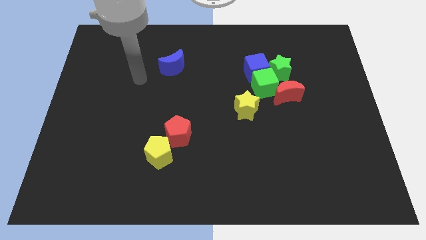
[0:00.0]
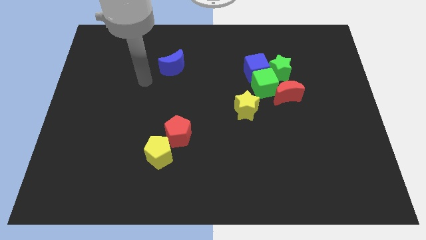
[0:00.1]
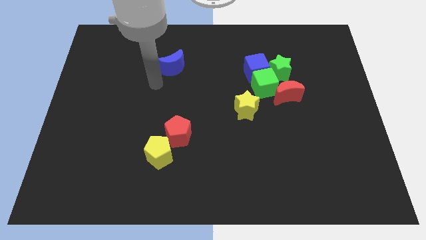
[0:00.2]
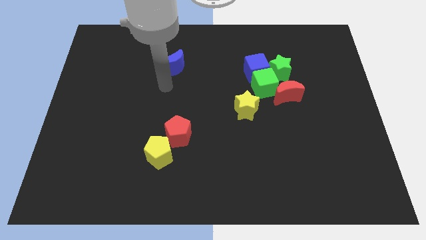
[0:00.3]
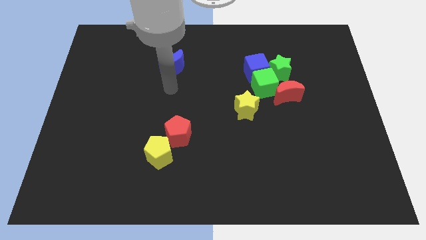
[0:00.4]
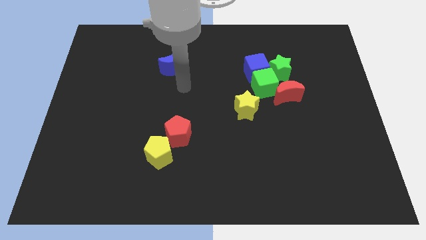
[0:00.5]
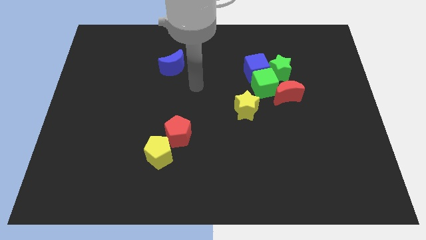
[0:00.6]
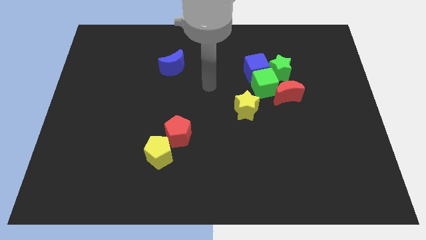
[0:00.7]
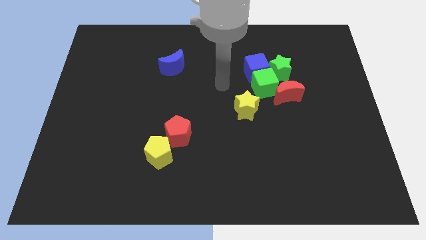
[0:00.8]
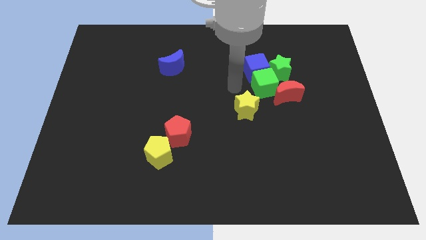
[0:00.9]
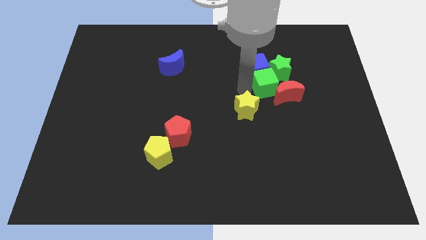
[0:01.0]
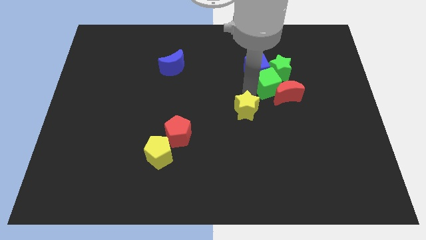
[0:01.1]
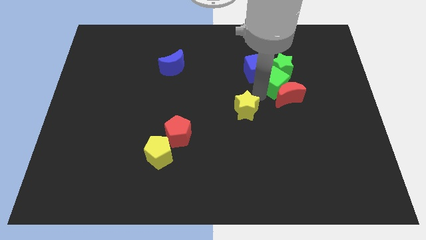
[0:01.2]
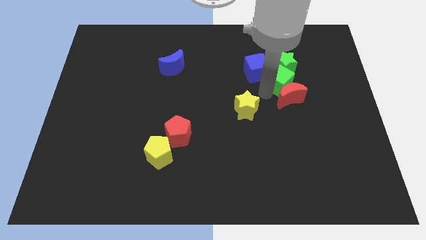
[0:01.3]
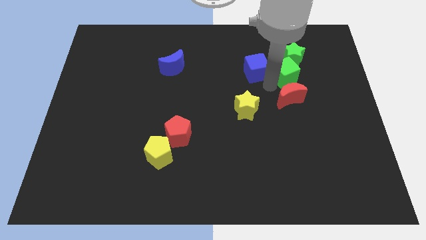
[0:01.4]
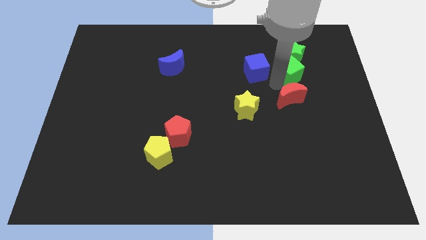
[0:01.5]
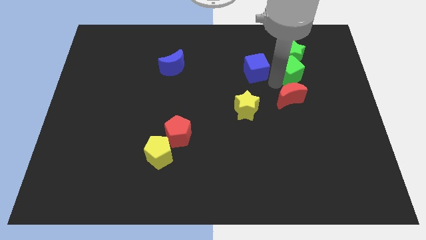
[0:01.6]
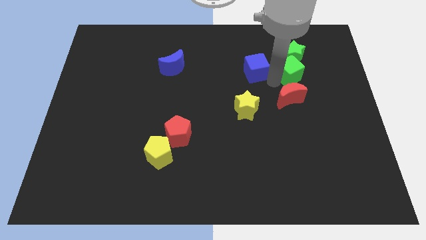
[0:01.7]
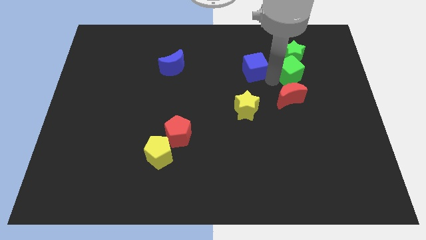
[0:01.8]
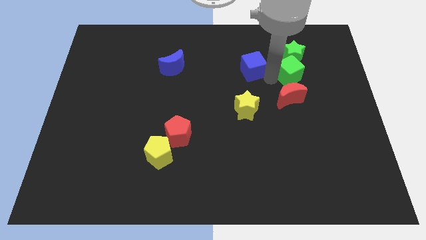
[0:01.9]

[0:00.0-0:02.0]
separate the blue cube from the green cube and green star

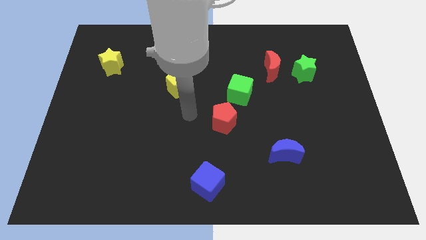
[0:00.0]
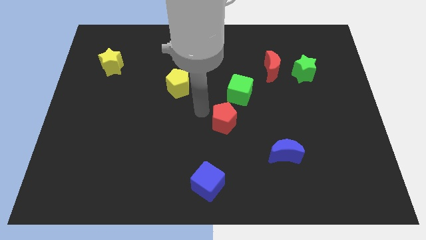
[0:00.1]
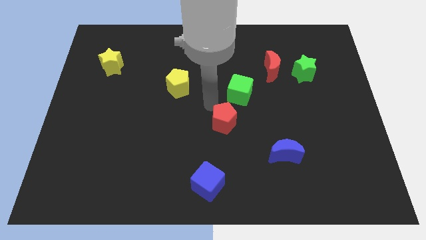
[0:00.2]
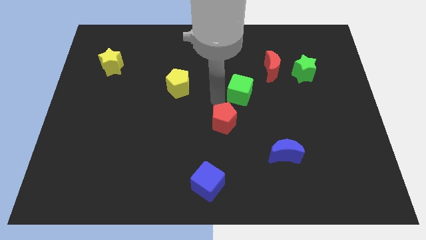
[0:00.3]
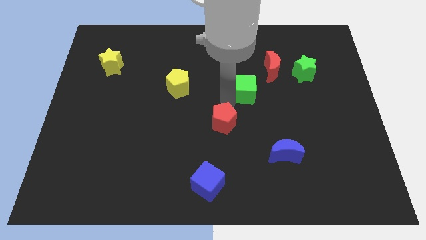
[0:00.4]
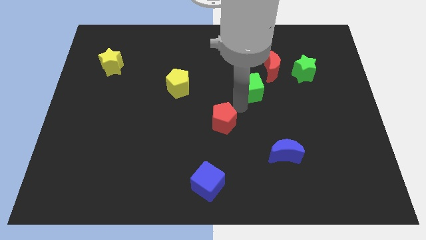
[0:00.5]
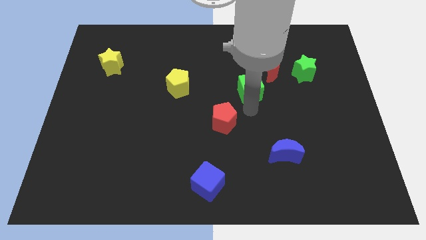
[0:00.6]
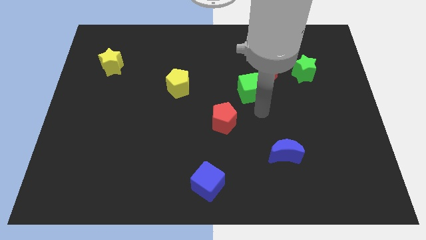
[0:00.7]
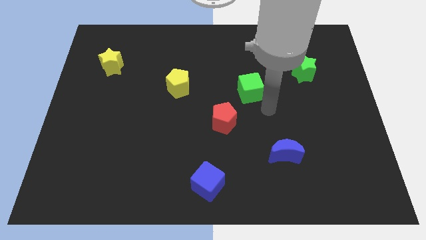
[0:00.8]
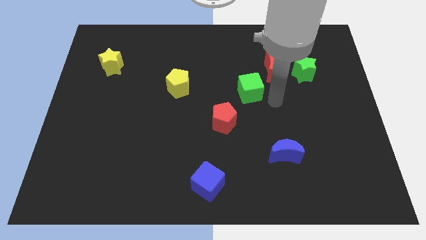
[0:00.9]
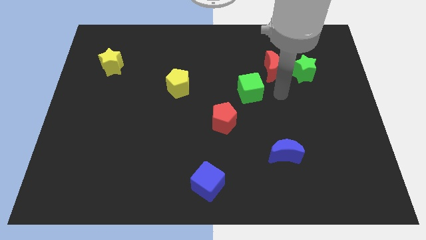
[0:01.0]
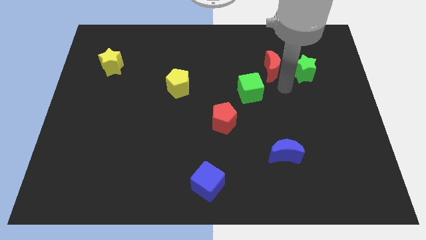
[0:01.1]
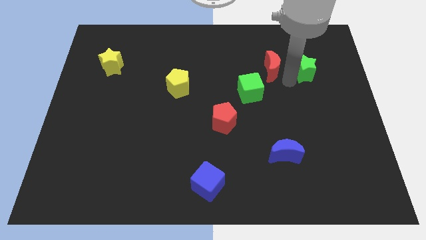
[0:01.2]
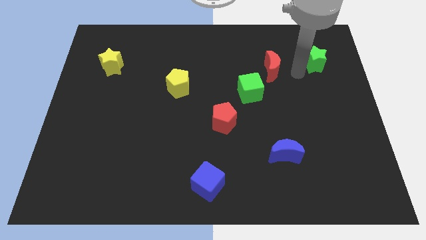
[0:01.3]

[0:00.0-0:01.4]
move the red moon away from the green star

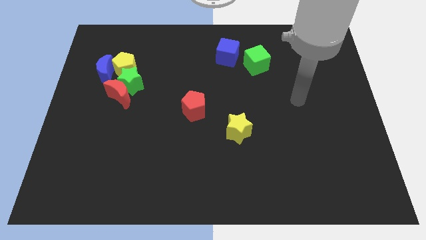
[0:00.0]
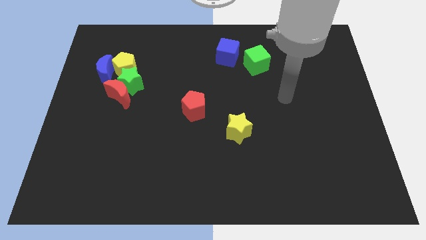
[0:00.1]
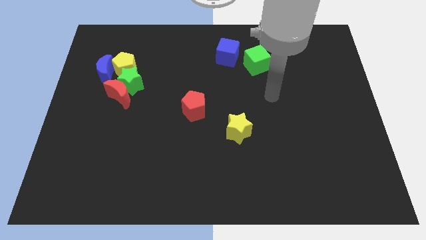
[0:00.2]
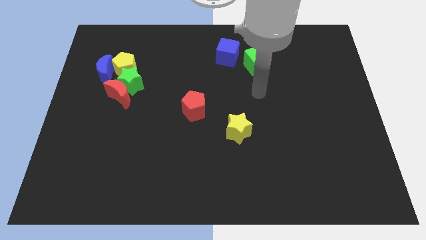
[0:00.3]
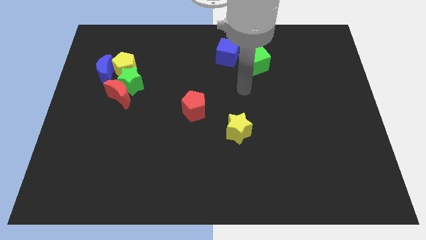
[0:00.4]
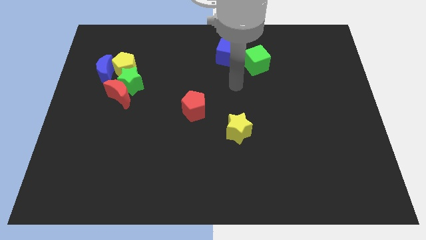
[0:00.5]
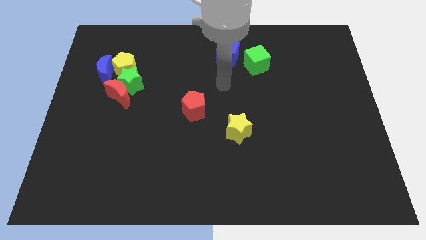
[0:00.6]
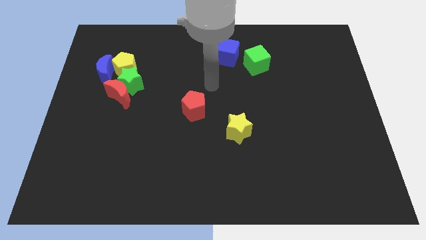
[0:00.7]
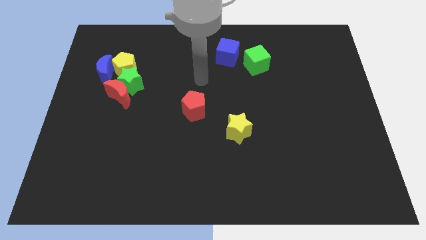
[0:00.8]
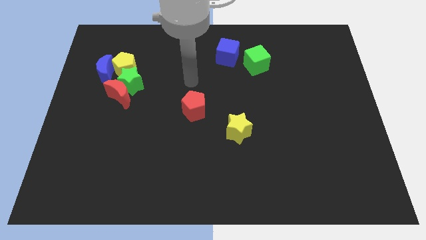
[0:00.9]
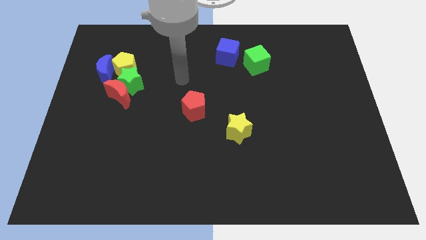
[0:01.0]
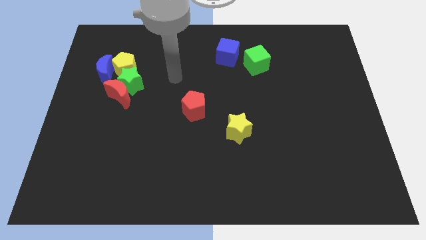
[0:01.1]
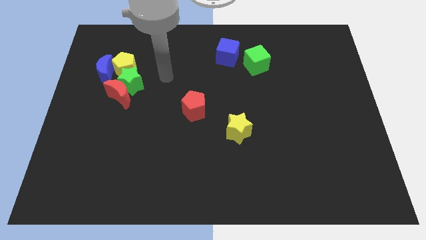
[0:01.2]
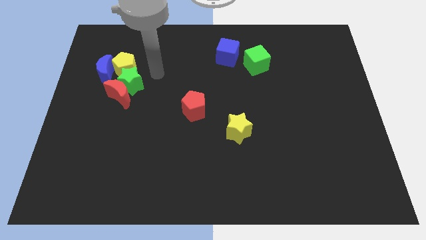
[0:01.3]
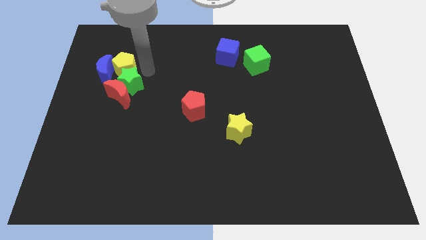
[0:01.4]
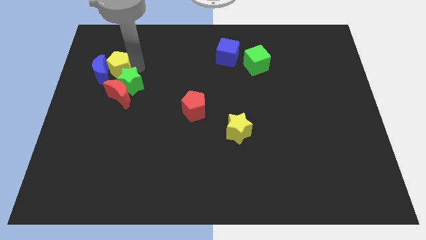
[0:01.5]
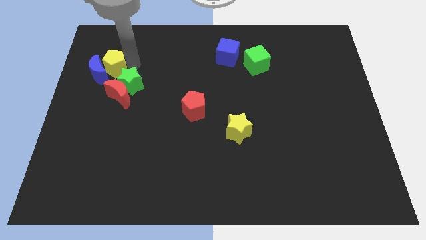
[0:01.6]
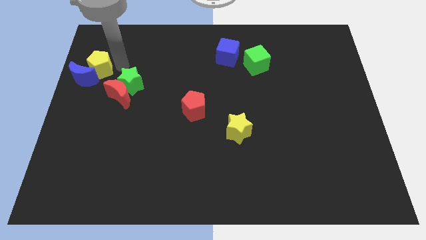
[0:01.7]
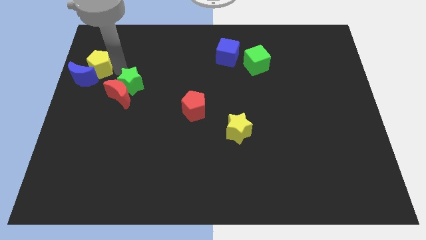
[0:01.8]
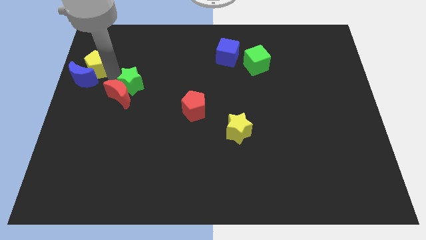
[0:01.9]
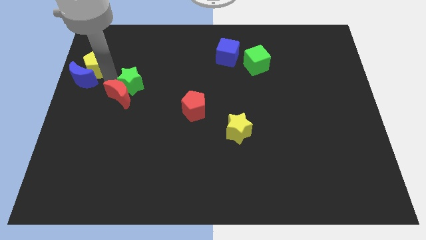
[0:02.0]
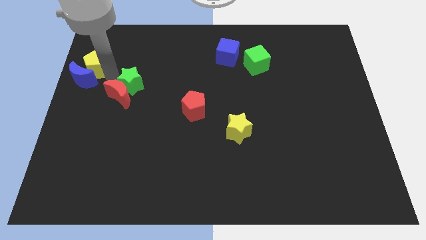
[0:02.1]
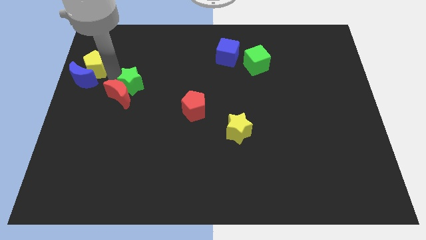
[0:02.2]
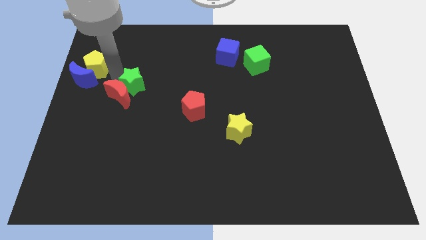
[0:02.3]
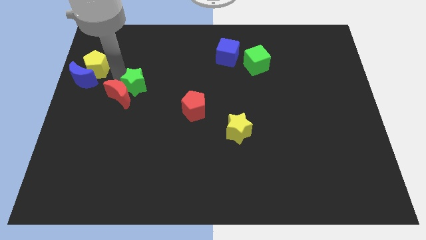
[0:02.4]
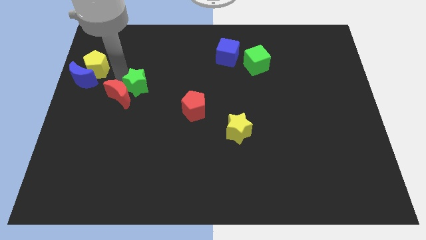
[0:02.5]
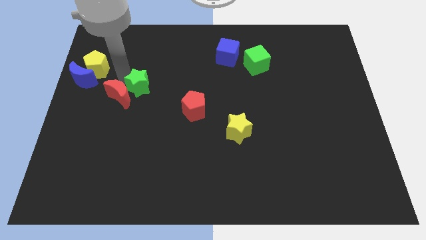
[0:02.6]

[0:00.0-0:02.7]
pull the green star apart from the red moon, yellow pentagon, and blue moon

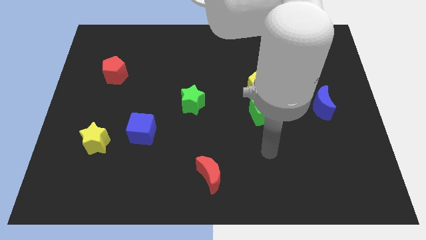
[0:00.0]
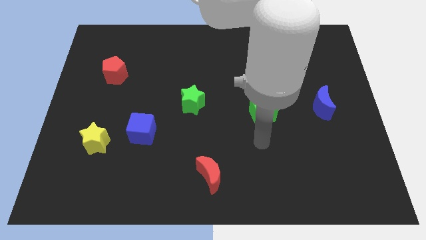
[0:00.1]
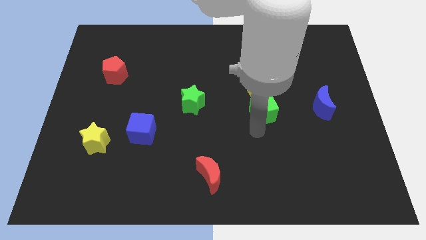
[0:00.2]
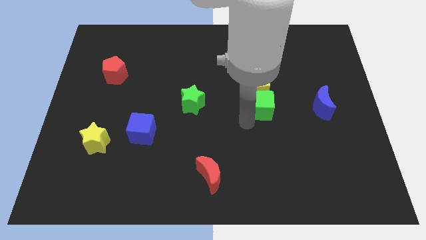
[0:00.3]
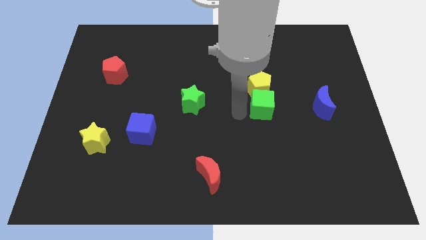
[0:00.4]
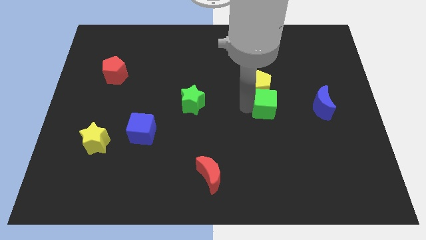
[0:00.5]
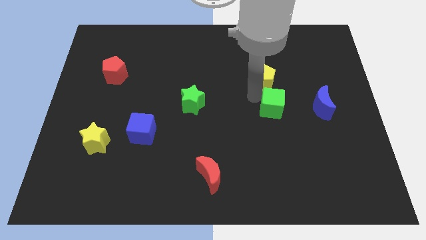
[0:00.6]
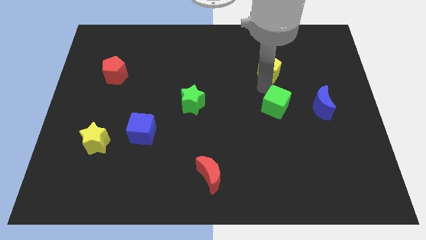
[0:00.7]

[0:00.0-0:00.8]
move the green cube away from the yellow pentagon

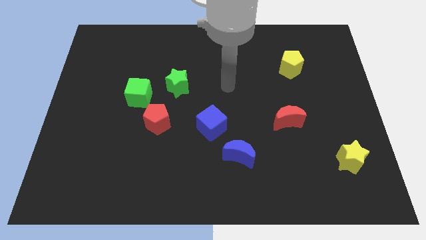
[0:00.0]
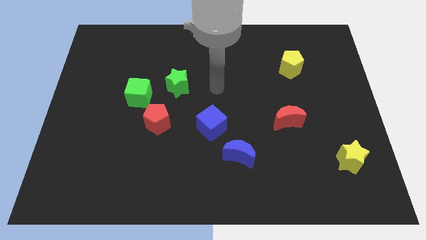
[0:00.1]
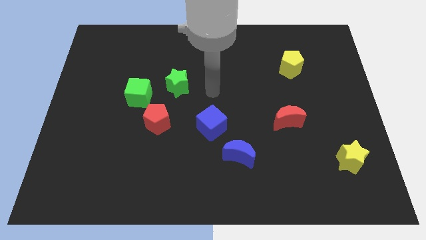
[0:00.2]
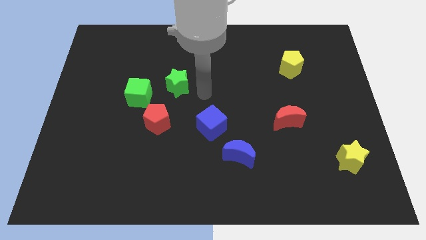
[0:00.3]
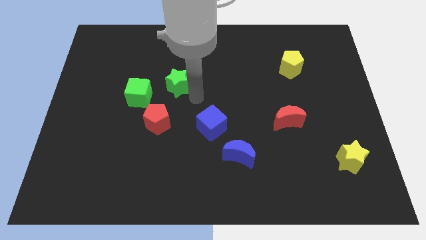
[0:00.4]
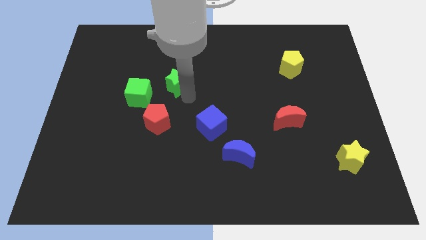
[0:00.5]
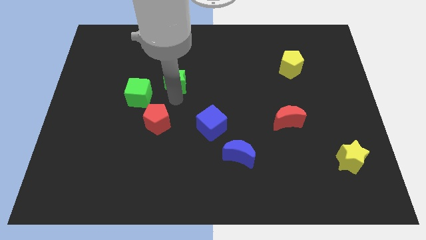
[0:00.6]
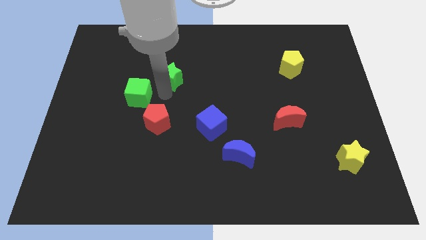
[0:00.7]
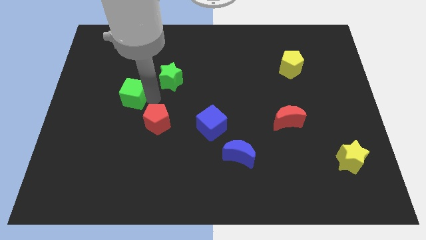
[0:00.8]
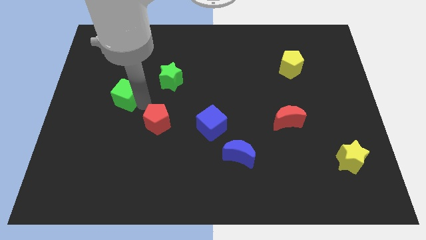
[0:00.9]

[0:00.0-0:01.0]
move the red pentagon away from the green cube

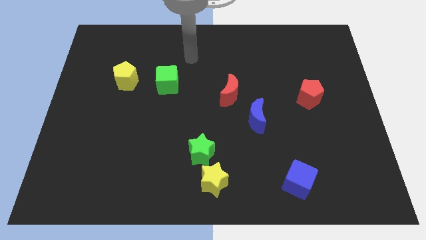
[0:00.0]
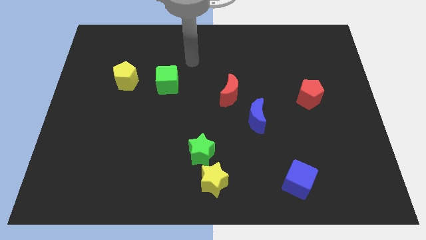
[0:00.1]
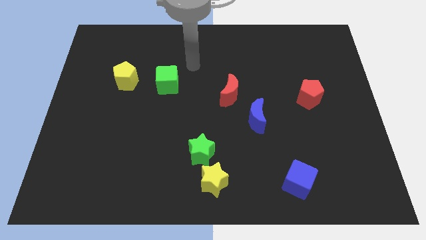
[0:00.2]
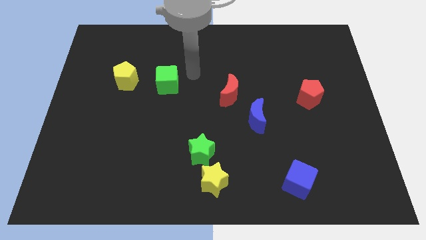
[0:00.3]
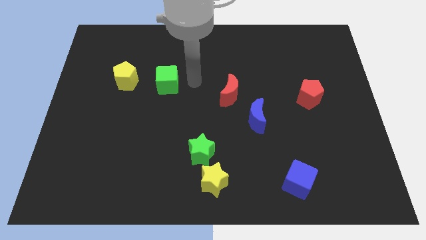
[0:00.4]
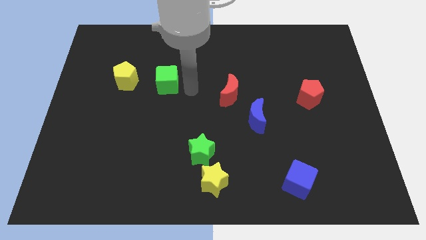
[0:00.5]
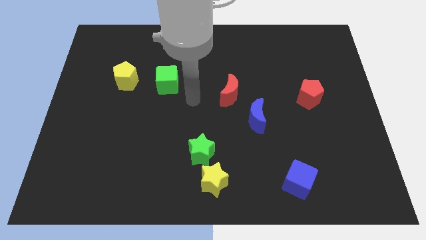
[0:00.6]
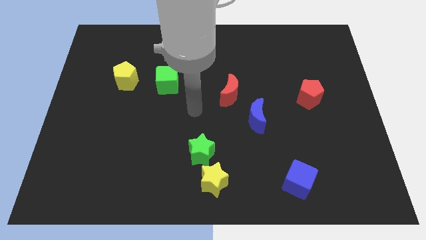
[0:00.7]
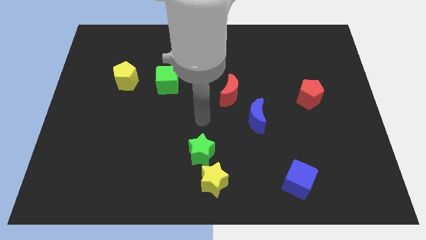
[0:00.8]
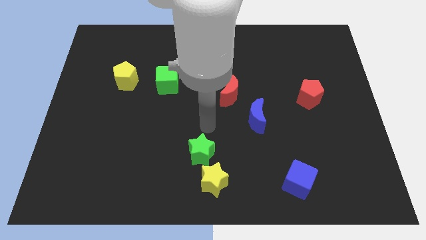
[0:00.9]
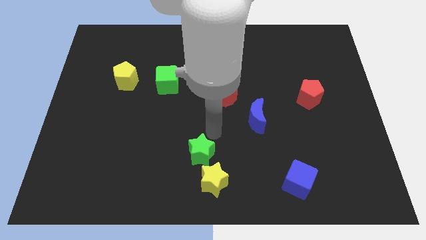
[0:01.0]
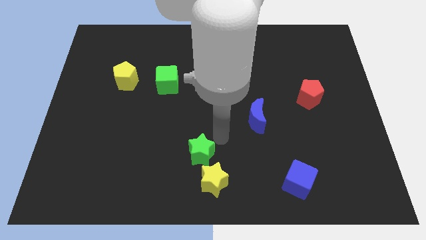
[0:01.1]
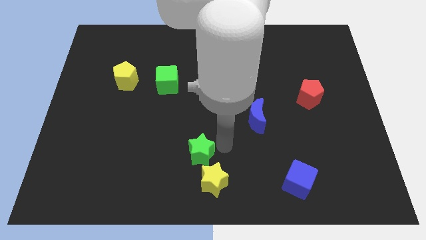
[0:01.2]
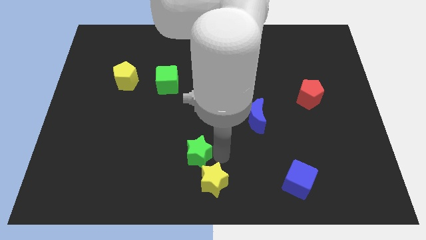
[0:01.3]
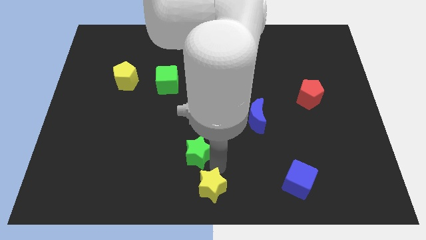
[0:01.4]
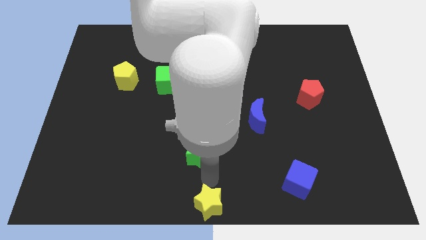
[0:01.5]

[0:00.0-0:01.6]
separate the green star from the yellow star
